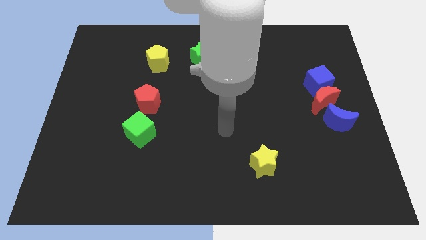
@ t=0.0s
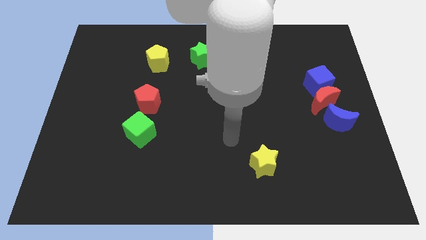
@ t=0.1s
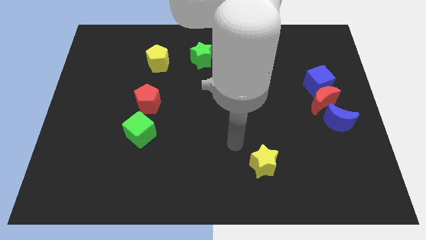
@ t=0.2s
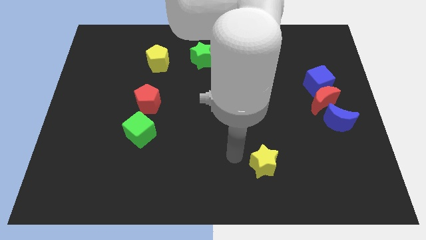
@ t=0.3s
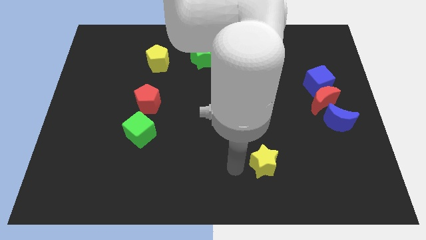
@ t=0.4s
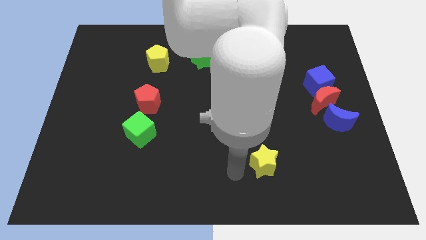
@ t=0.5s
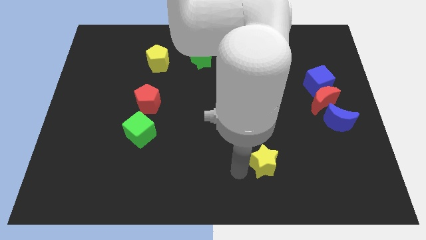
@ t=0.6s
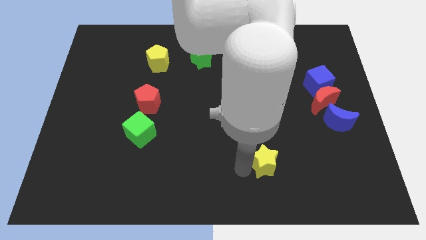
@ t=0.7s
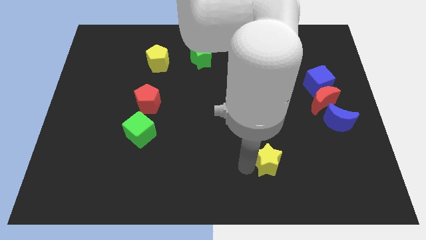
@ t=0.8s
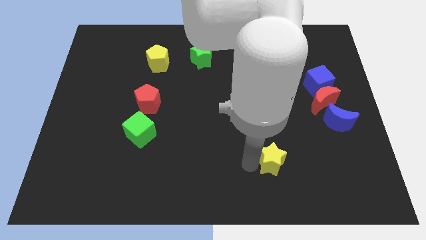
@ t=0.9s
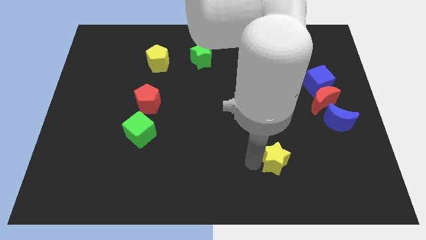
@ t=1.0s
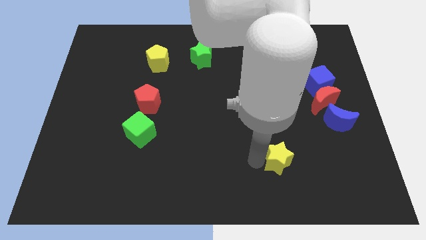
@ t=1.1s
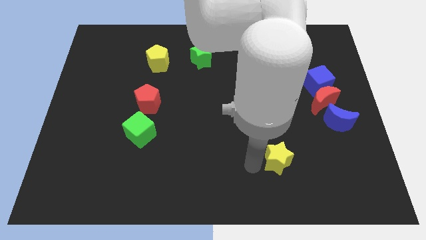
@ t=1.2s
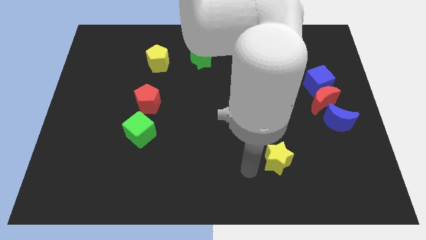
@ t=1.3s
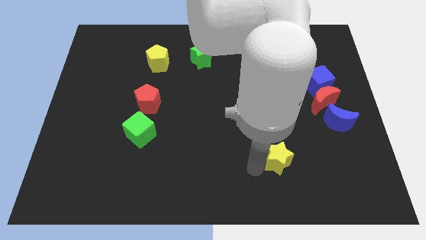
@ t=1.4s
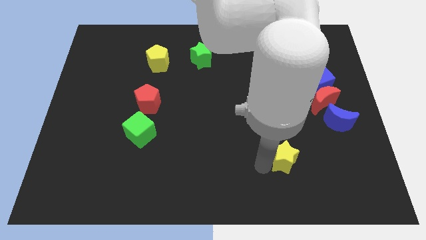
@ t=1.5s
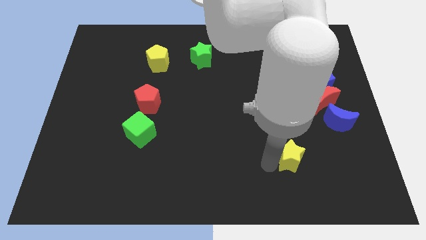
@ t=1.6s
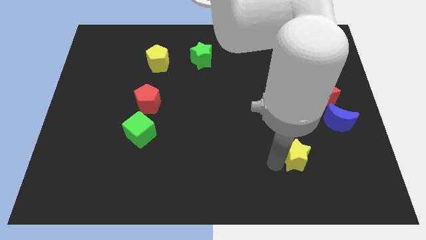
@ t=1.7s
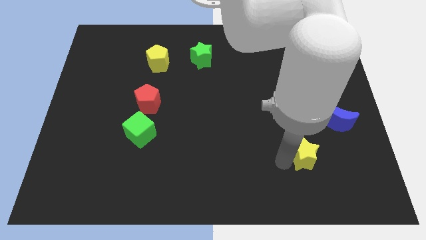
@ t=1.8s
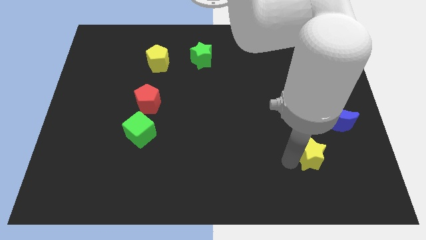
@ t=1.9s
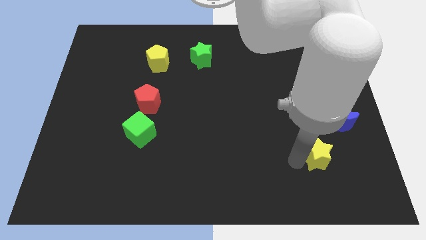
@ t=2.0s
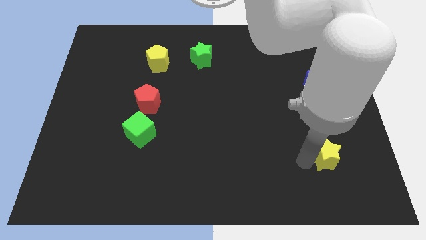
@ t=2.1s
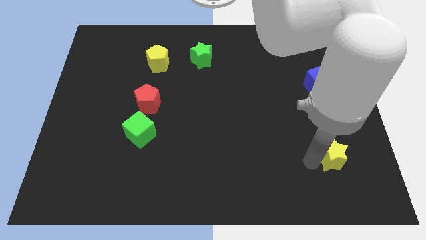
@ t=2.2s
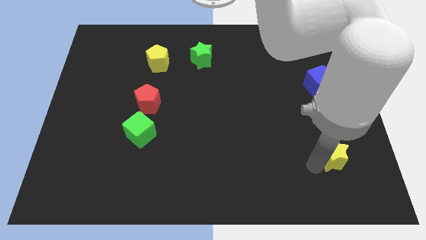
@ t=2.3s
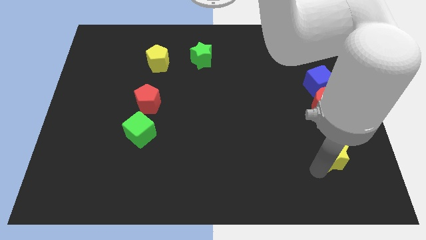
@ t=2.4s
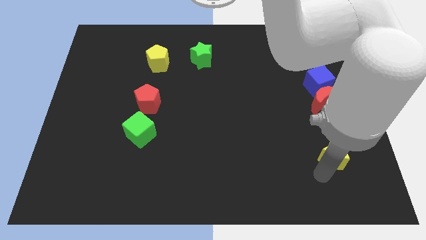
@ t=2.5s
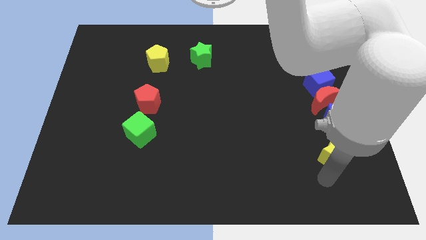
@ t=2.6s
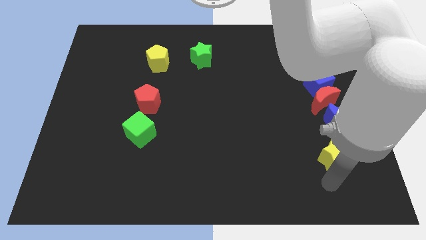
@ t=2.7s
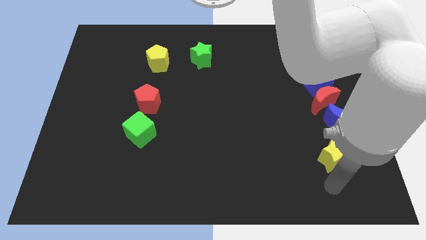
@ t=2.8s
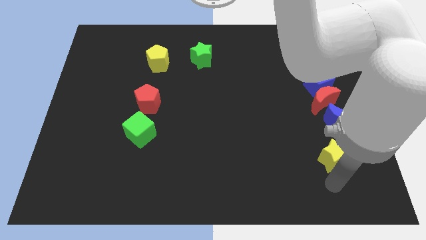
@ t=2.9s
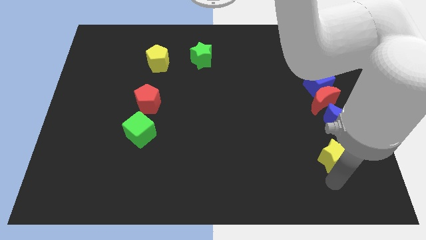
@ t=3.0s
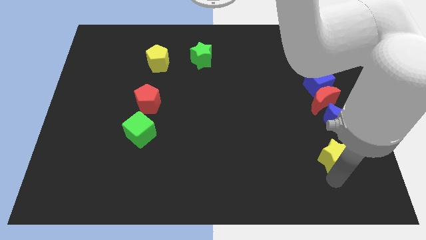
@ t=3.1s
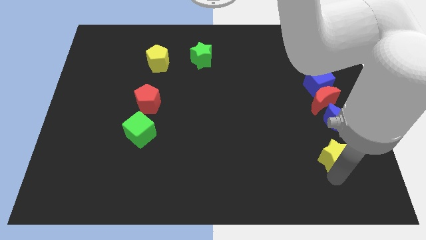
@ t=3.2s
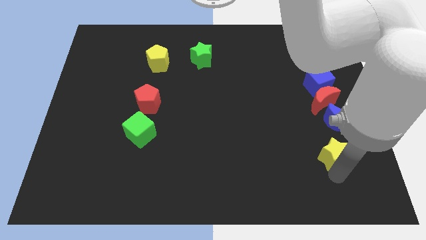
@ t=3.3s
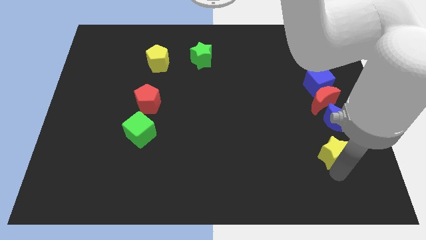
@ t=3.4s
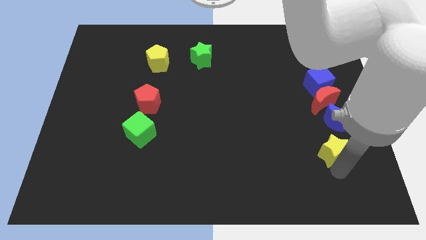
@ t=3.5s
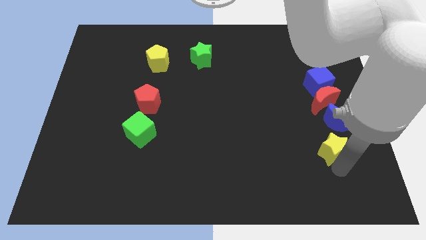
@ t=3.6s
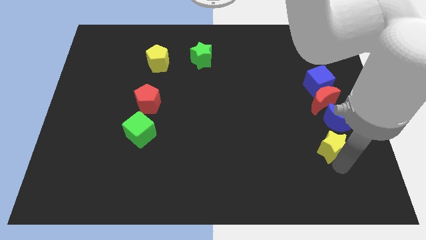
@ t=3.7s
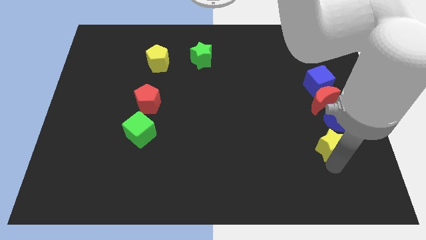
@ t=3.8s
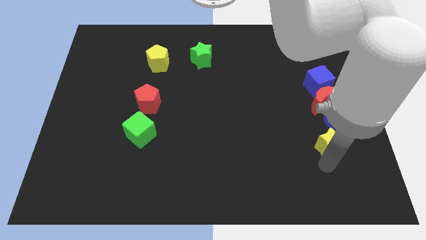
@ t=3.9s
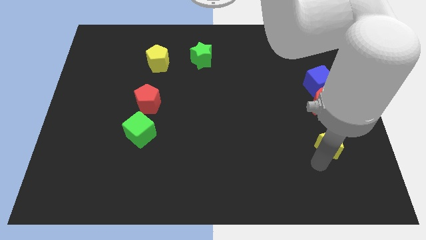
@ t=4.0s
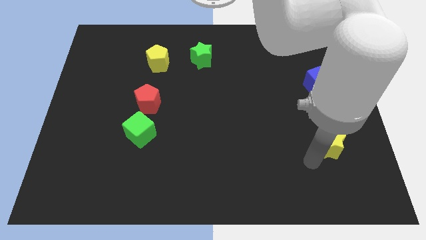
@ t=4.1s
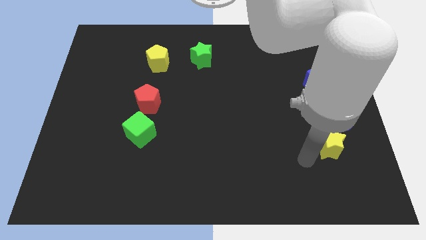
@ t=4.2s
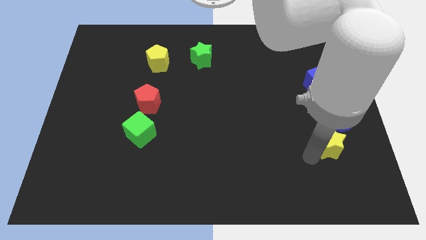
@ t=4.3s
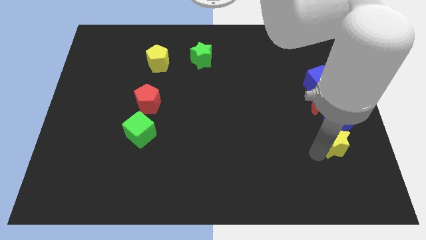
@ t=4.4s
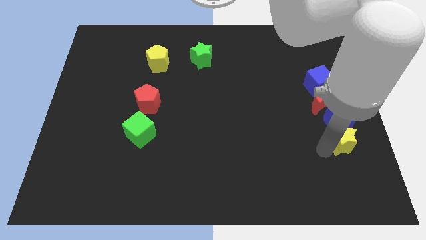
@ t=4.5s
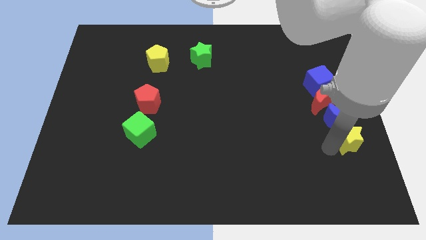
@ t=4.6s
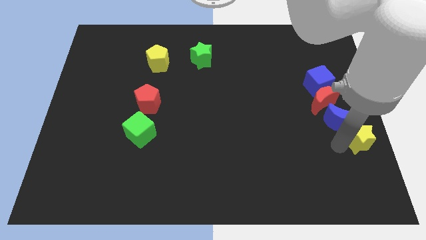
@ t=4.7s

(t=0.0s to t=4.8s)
put the yellow star to the right side

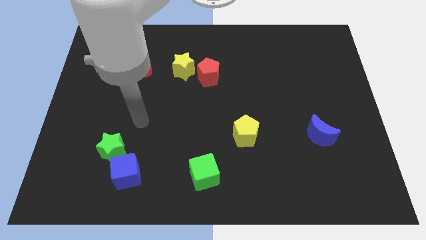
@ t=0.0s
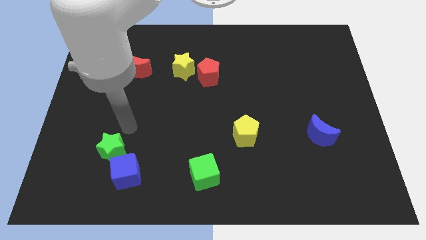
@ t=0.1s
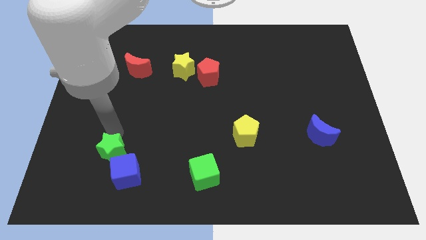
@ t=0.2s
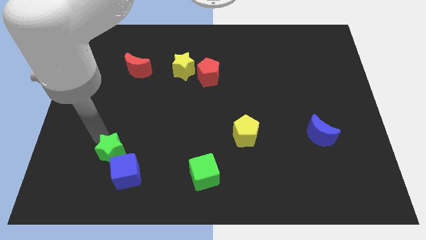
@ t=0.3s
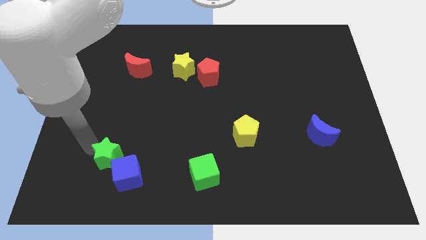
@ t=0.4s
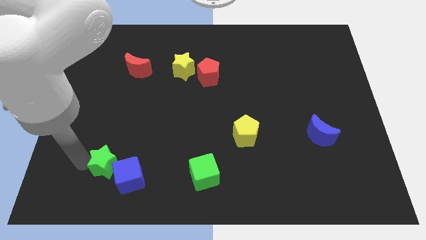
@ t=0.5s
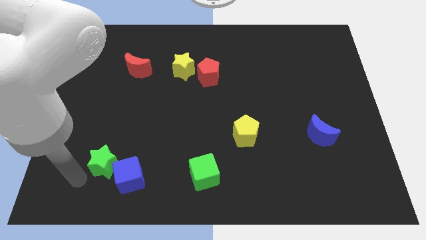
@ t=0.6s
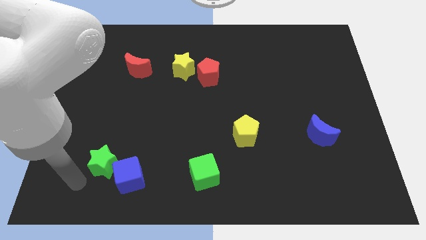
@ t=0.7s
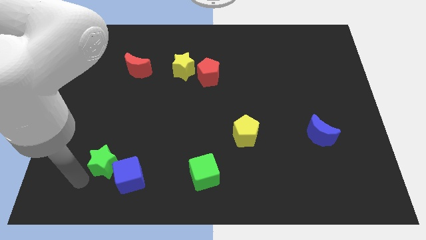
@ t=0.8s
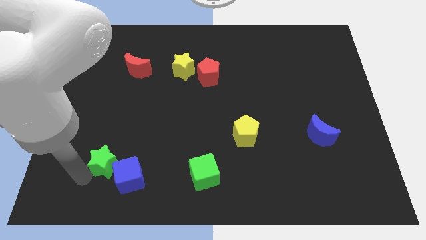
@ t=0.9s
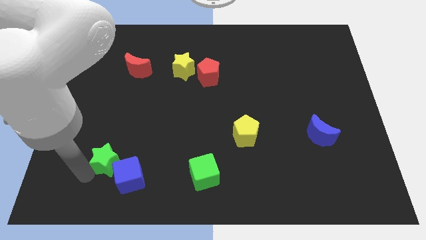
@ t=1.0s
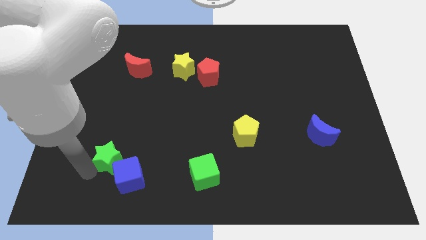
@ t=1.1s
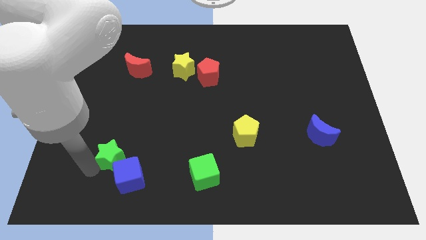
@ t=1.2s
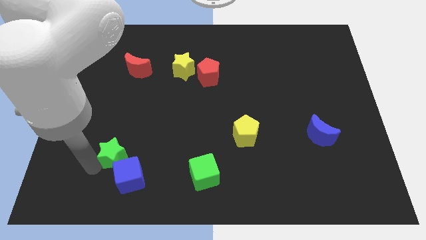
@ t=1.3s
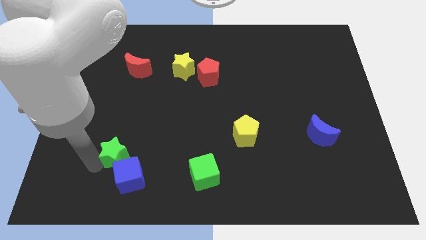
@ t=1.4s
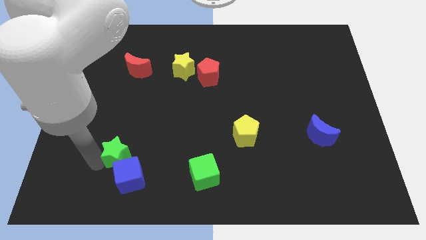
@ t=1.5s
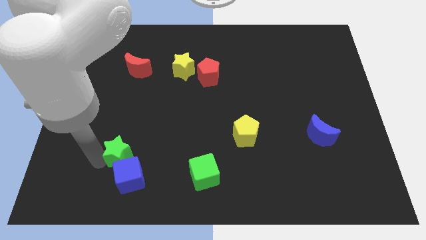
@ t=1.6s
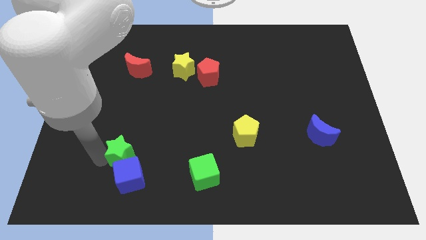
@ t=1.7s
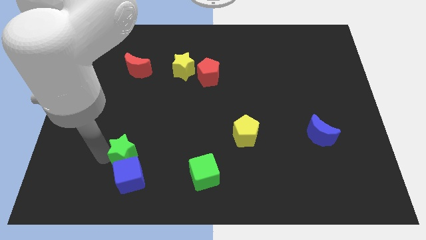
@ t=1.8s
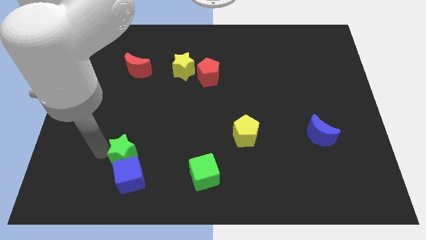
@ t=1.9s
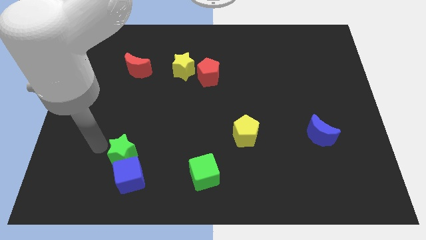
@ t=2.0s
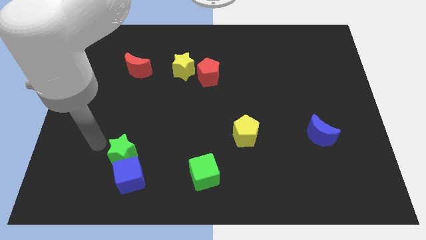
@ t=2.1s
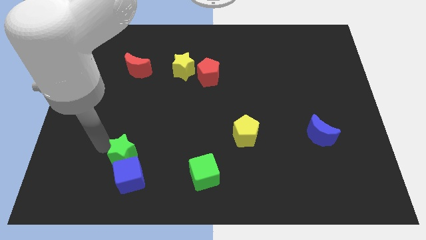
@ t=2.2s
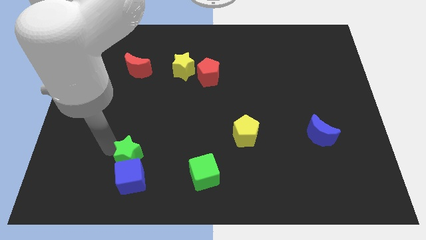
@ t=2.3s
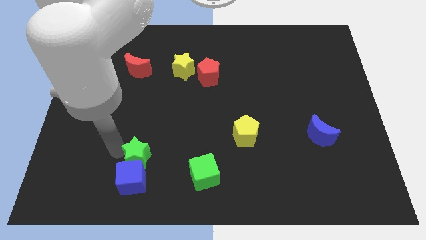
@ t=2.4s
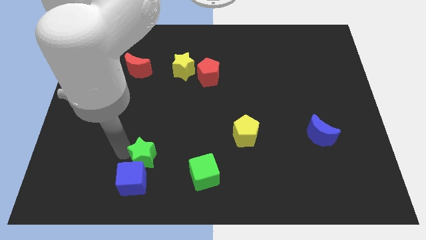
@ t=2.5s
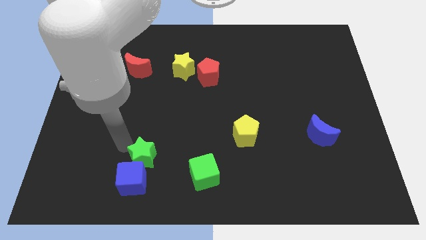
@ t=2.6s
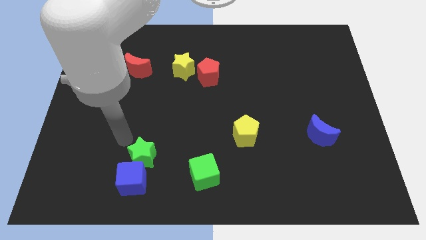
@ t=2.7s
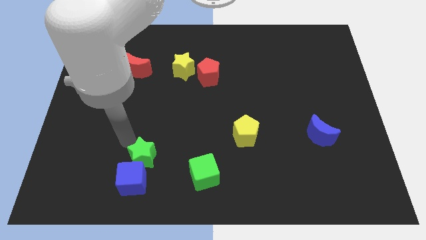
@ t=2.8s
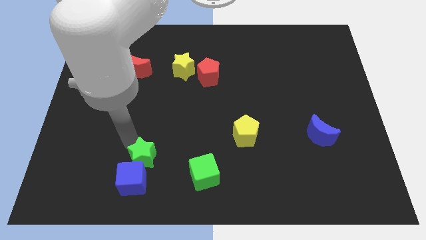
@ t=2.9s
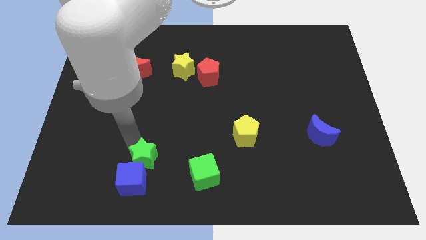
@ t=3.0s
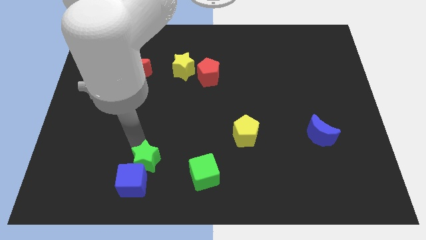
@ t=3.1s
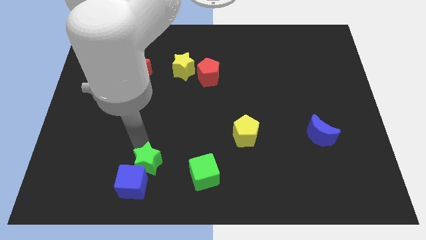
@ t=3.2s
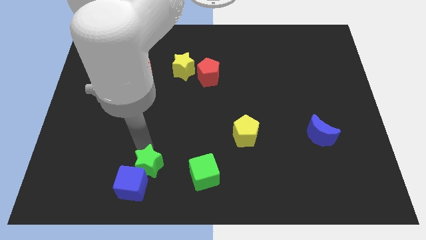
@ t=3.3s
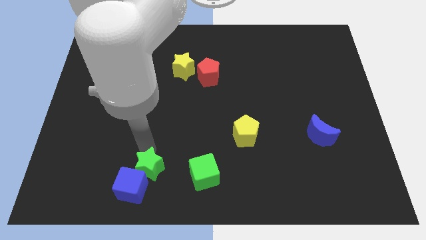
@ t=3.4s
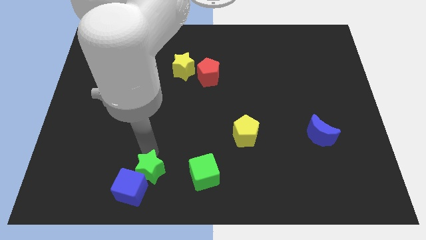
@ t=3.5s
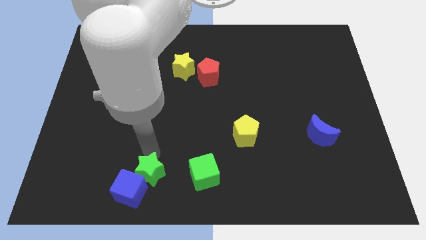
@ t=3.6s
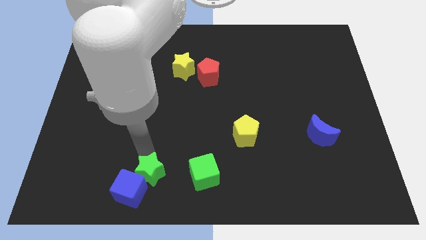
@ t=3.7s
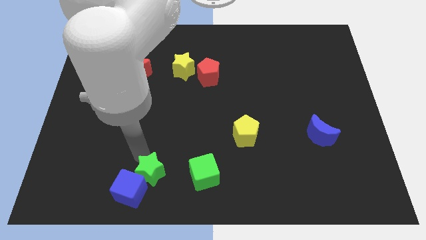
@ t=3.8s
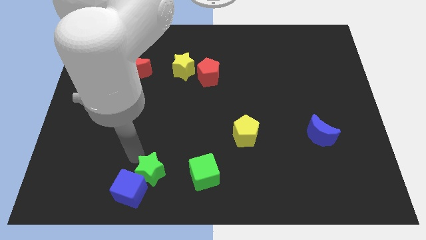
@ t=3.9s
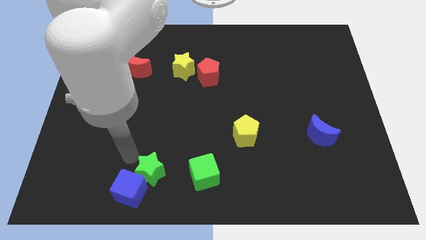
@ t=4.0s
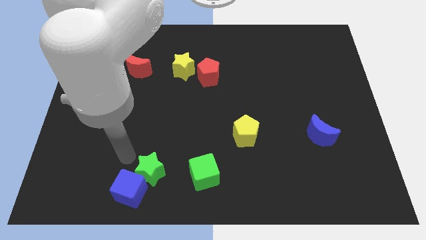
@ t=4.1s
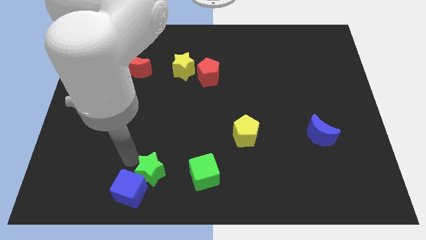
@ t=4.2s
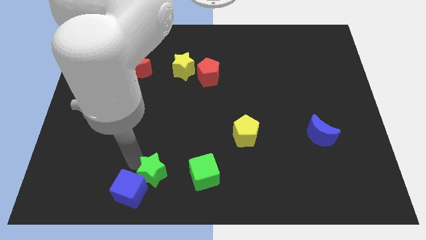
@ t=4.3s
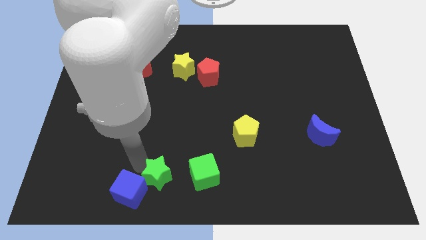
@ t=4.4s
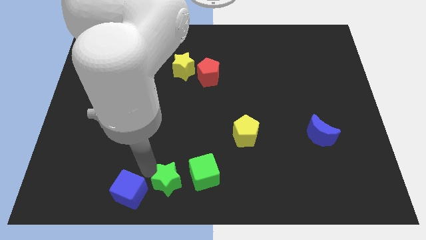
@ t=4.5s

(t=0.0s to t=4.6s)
push the green star to the bottom
